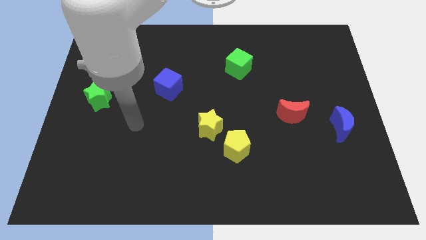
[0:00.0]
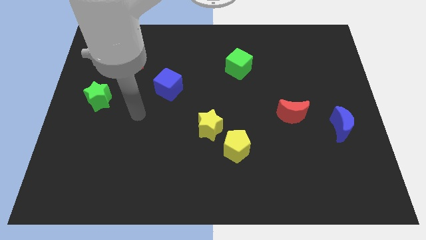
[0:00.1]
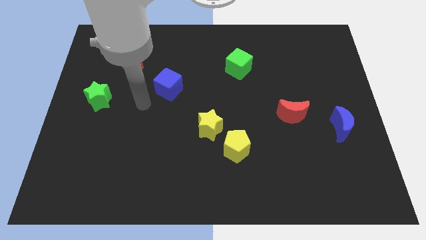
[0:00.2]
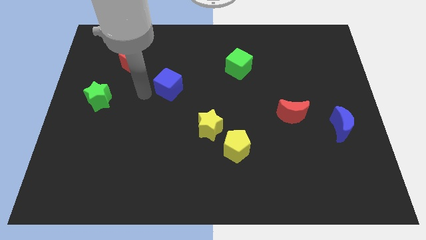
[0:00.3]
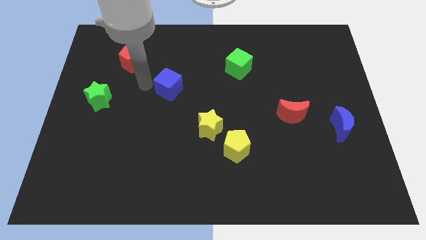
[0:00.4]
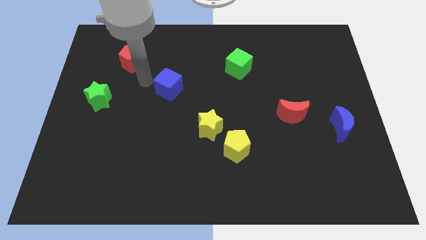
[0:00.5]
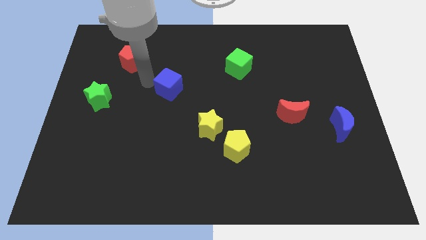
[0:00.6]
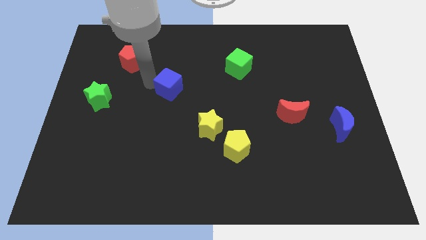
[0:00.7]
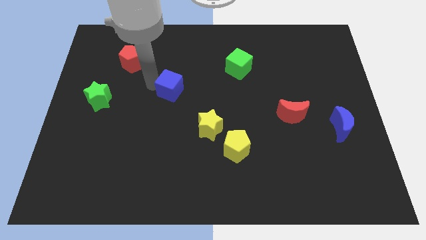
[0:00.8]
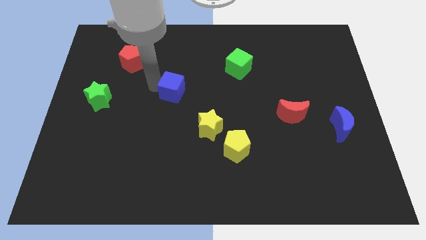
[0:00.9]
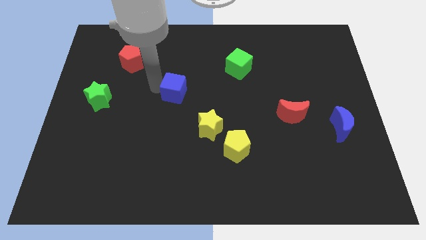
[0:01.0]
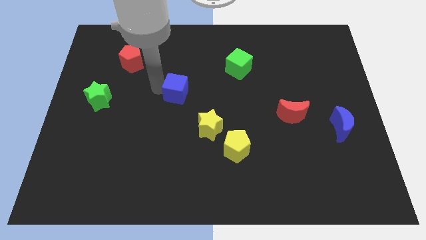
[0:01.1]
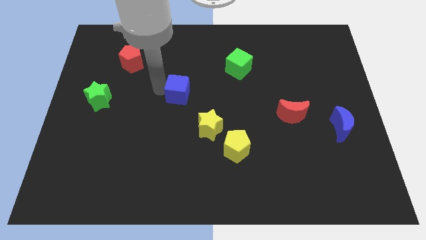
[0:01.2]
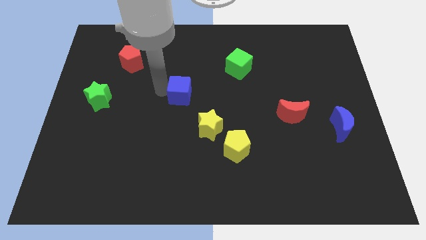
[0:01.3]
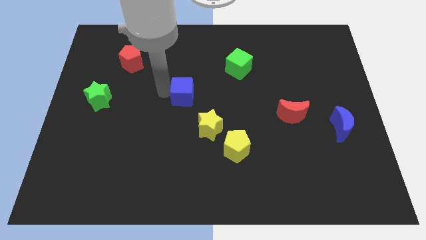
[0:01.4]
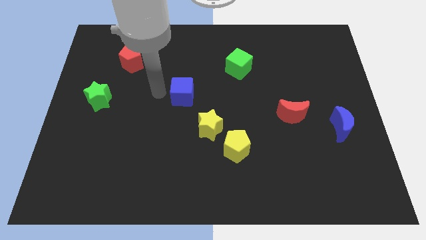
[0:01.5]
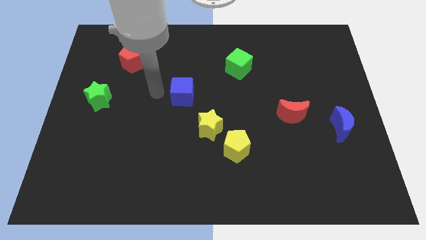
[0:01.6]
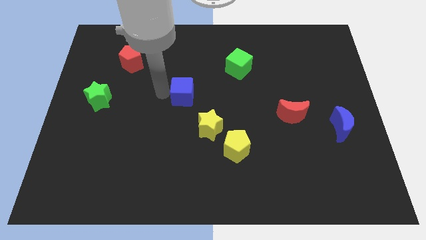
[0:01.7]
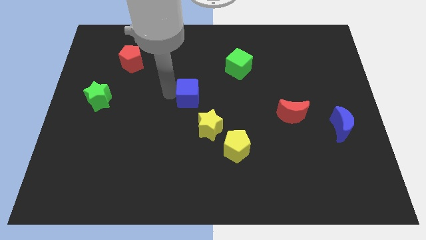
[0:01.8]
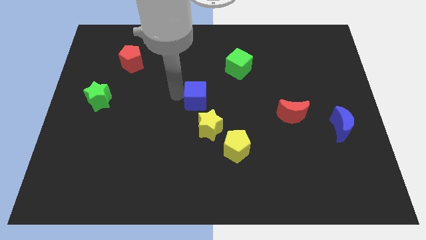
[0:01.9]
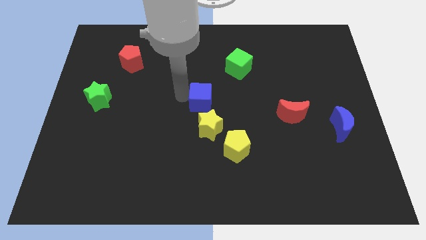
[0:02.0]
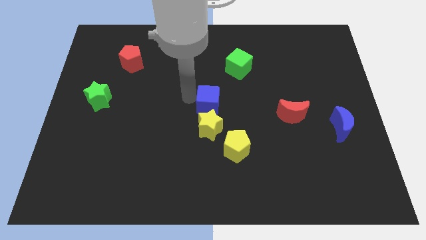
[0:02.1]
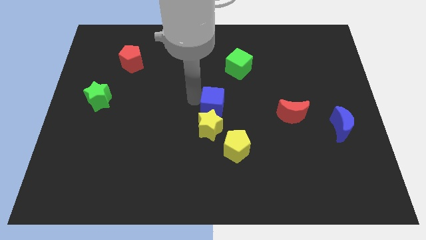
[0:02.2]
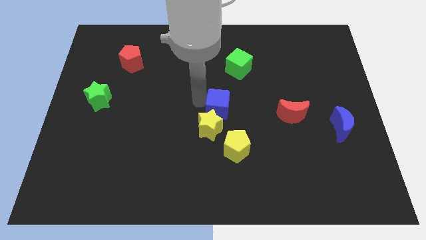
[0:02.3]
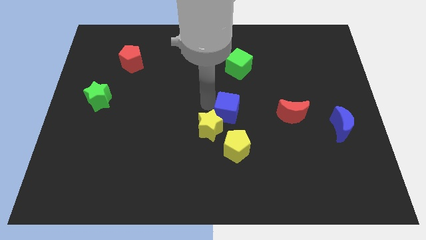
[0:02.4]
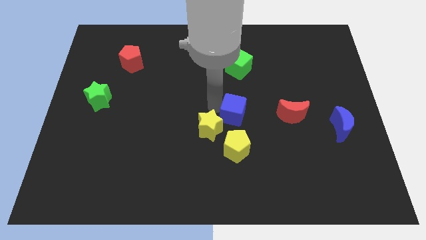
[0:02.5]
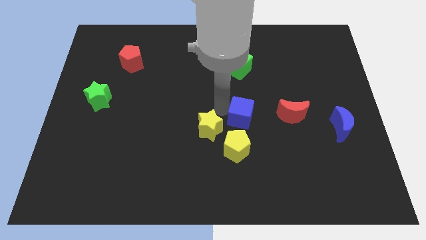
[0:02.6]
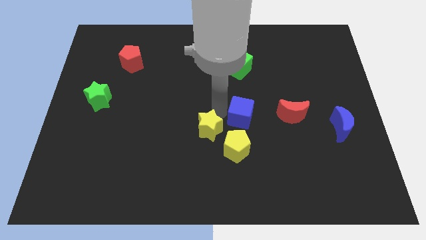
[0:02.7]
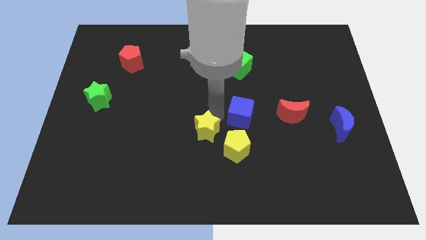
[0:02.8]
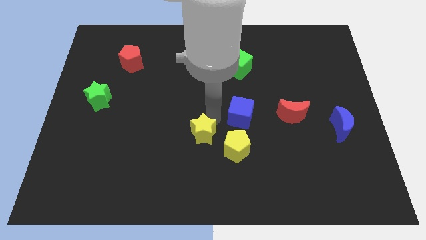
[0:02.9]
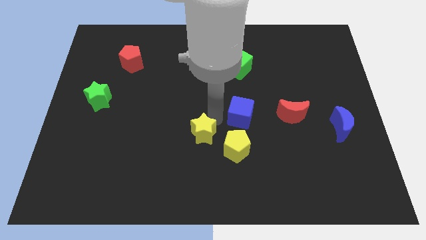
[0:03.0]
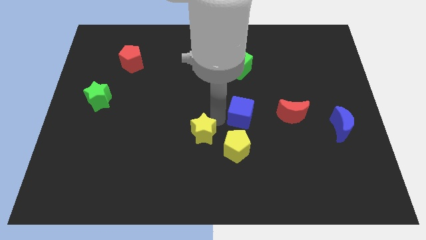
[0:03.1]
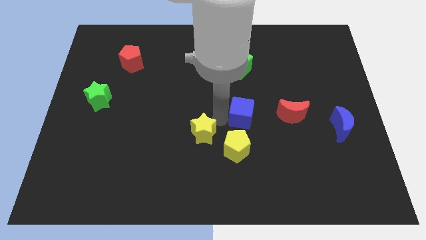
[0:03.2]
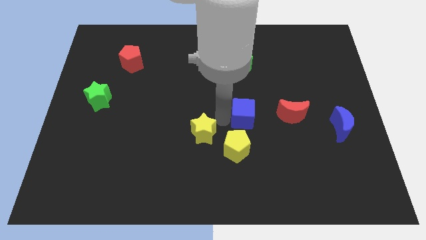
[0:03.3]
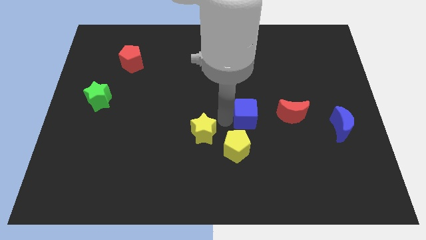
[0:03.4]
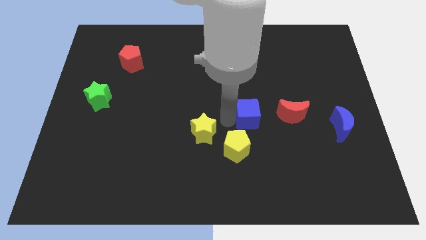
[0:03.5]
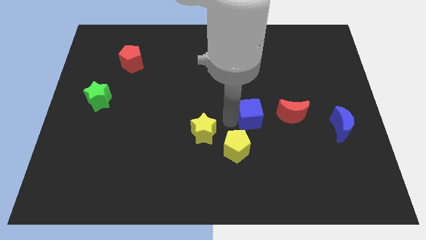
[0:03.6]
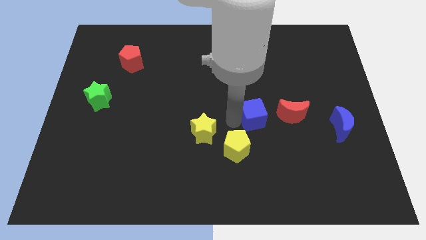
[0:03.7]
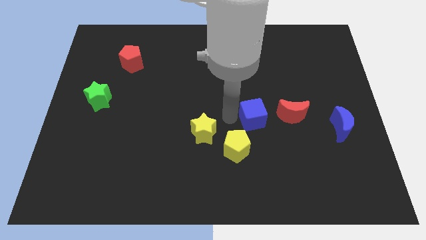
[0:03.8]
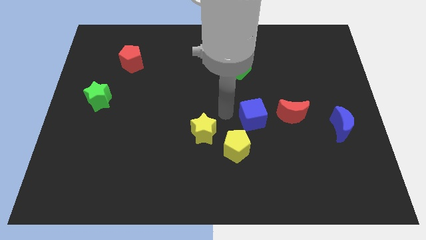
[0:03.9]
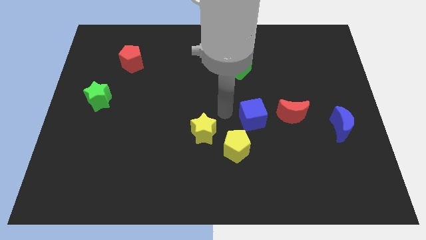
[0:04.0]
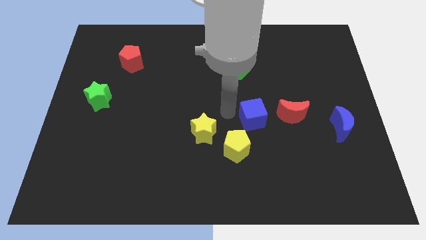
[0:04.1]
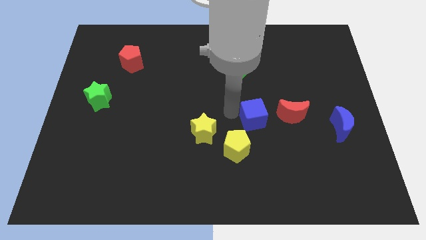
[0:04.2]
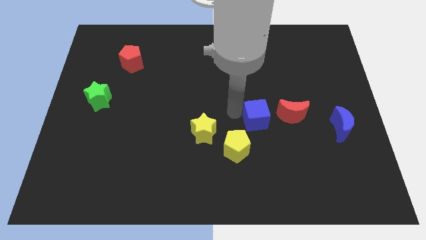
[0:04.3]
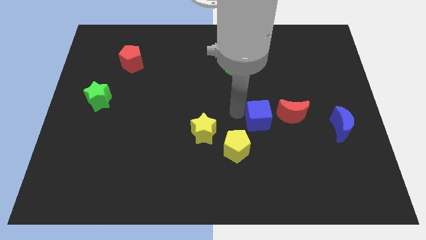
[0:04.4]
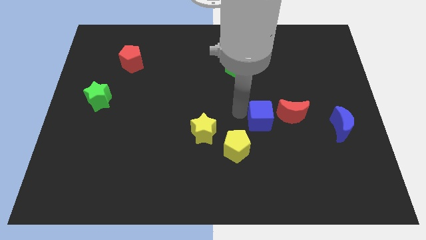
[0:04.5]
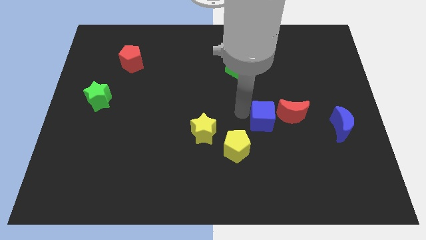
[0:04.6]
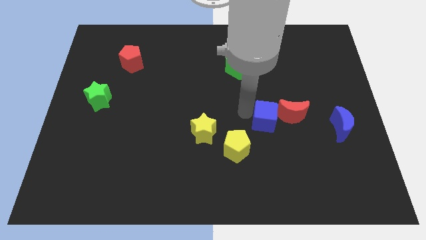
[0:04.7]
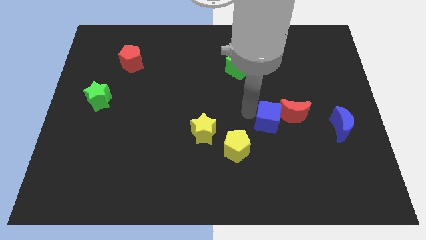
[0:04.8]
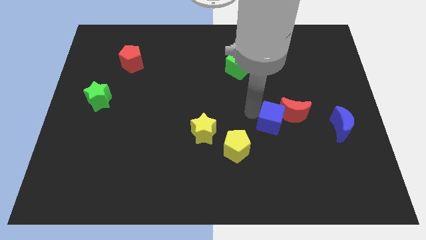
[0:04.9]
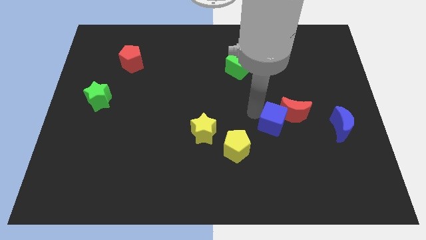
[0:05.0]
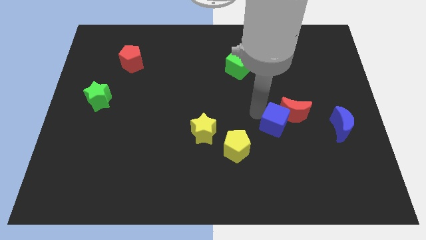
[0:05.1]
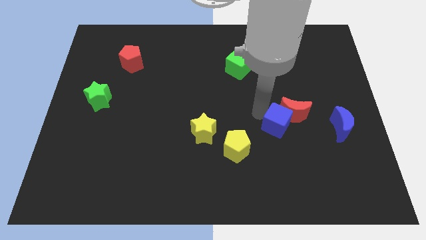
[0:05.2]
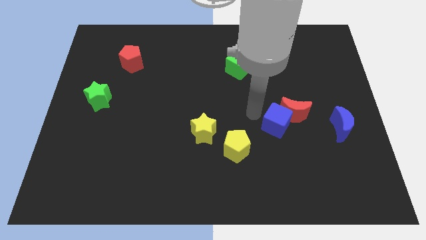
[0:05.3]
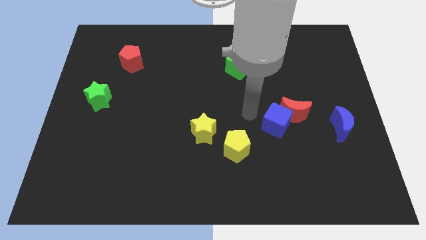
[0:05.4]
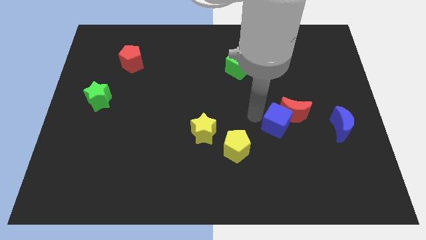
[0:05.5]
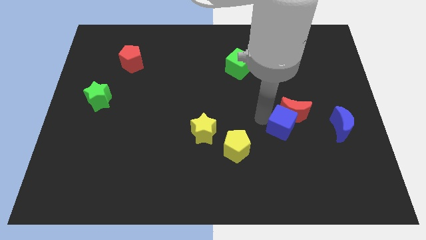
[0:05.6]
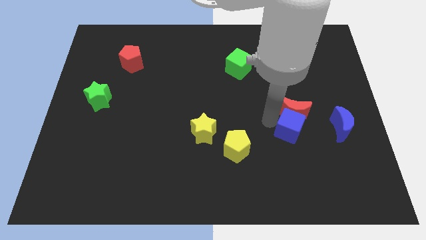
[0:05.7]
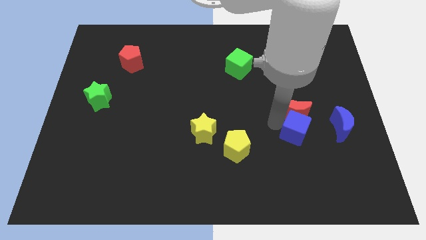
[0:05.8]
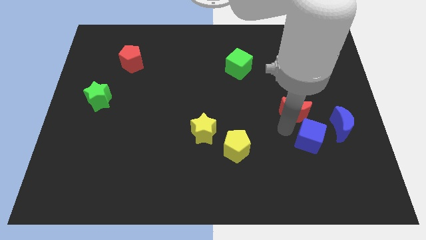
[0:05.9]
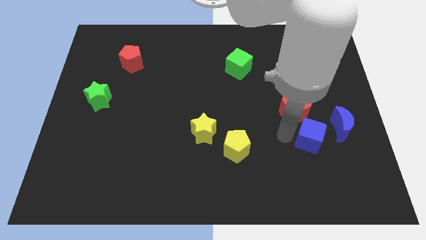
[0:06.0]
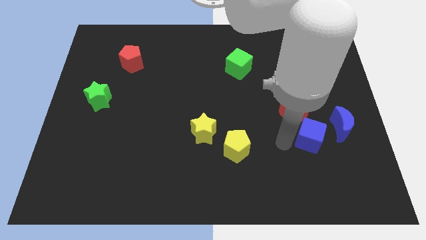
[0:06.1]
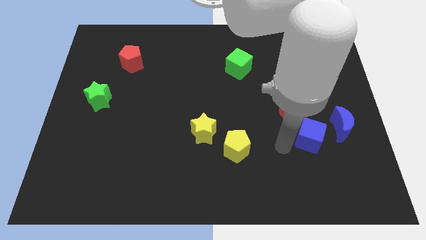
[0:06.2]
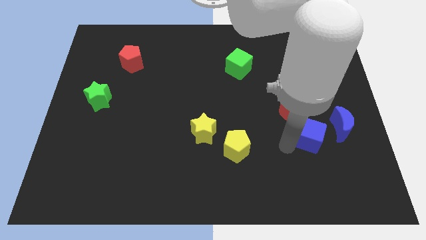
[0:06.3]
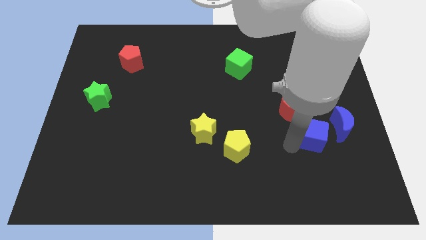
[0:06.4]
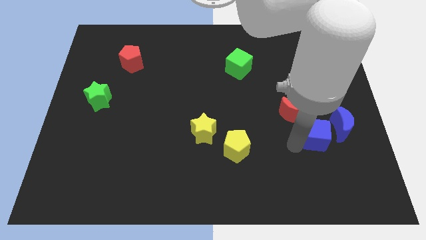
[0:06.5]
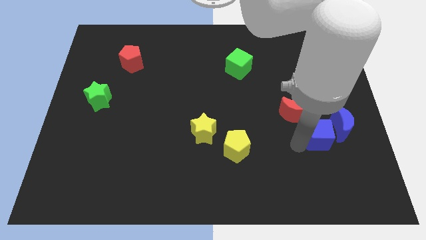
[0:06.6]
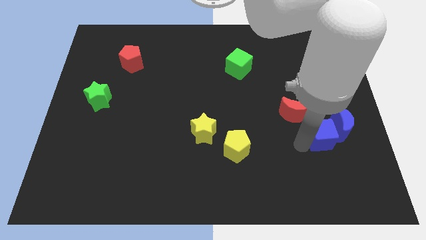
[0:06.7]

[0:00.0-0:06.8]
put the blue cube towards the blue moon

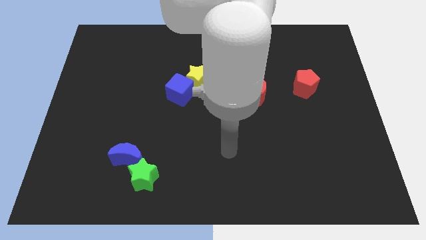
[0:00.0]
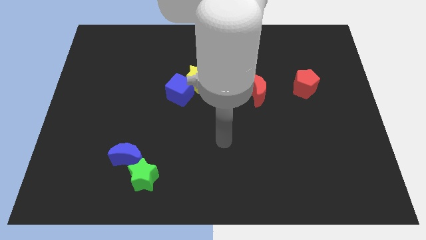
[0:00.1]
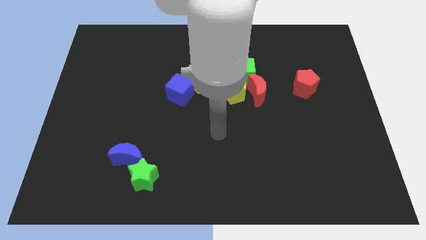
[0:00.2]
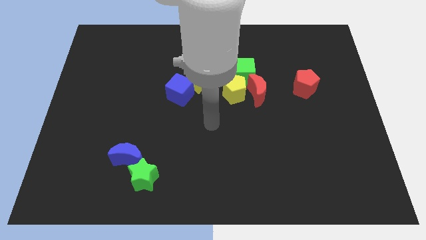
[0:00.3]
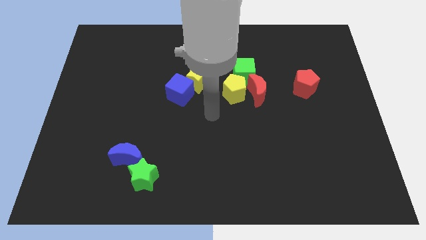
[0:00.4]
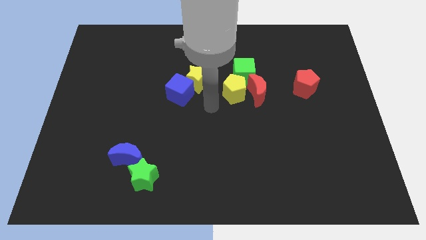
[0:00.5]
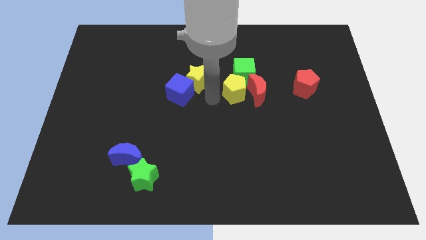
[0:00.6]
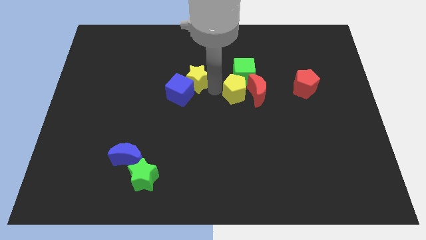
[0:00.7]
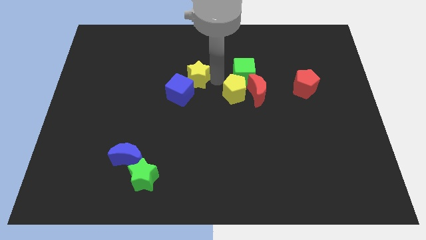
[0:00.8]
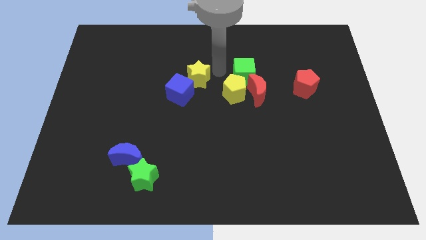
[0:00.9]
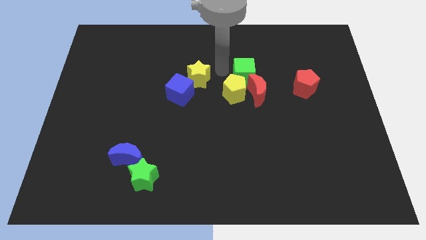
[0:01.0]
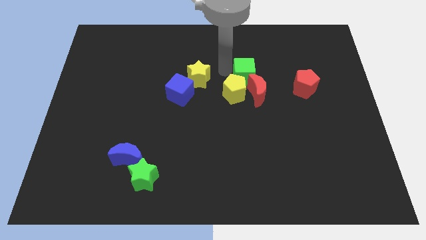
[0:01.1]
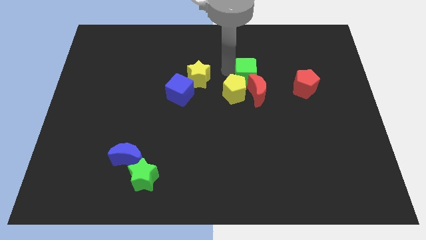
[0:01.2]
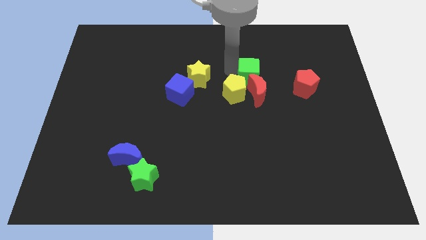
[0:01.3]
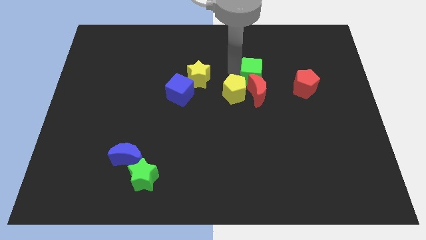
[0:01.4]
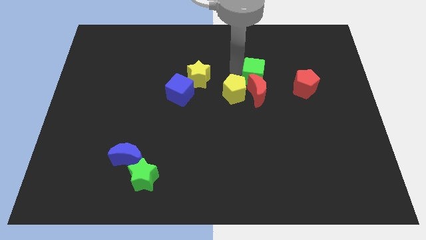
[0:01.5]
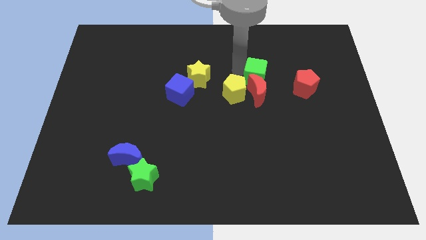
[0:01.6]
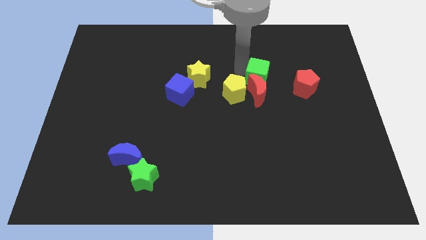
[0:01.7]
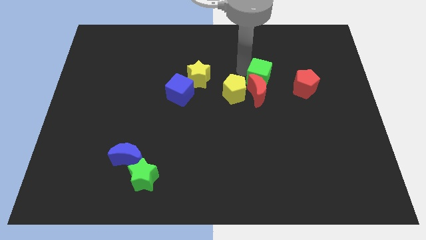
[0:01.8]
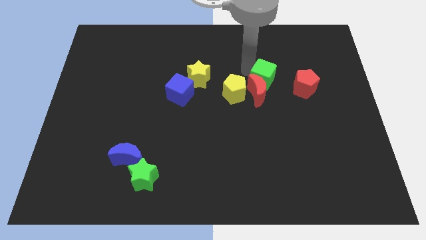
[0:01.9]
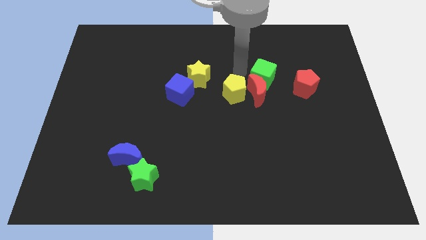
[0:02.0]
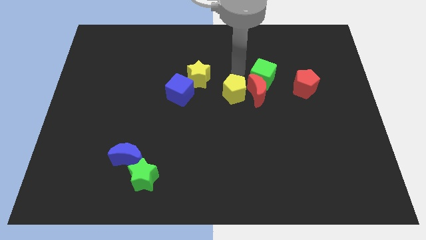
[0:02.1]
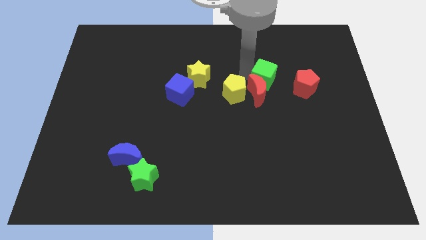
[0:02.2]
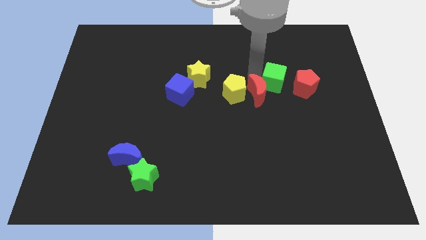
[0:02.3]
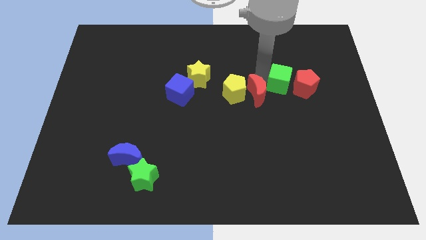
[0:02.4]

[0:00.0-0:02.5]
put the green cube next to the red pentagon
